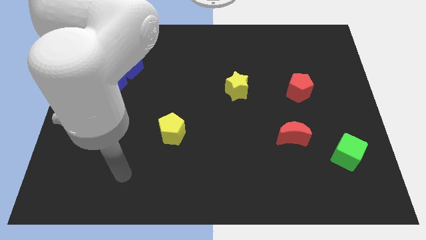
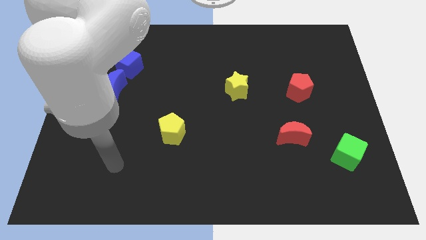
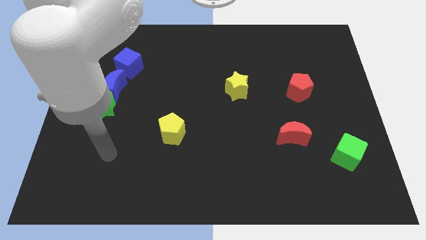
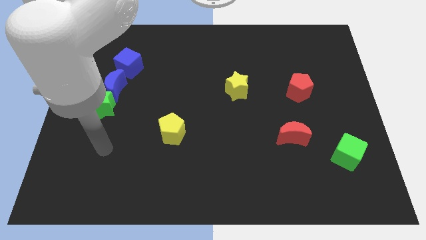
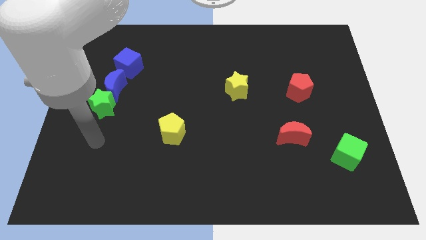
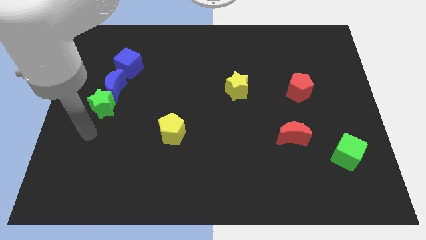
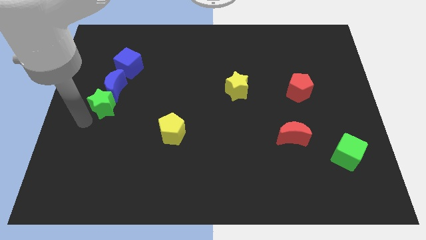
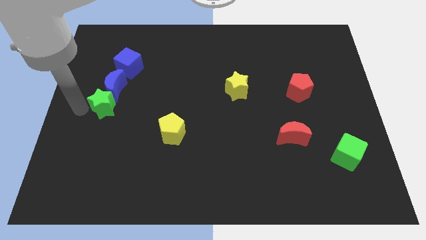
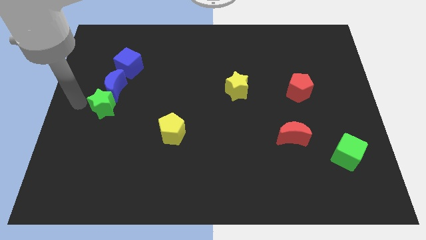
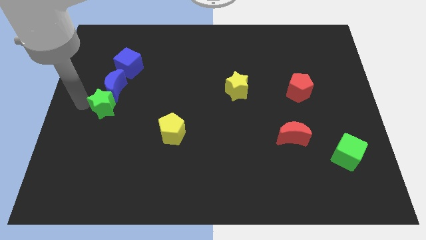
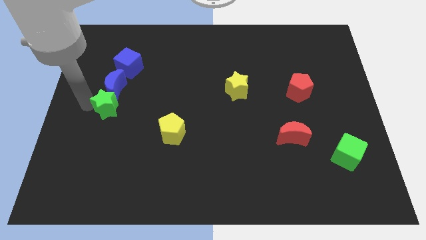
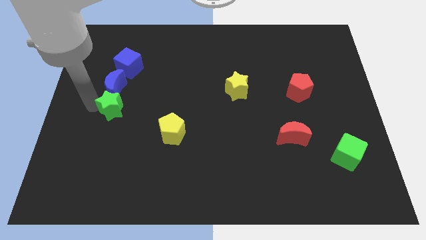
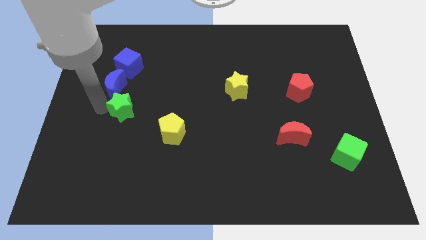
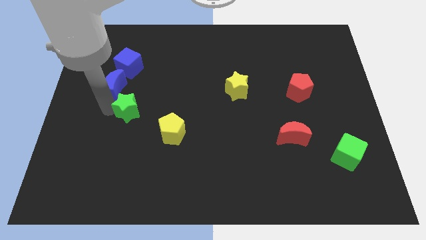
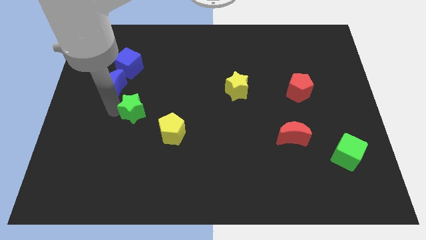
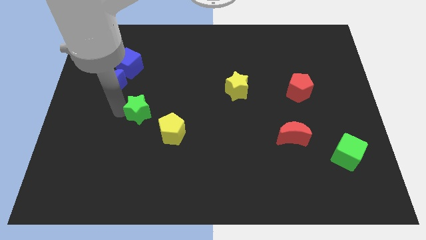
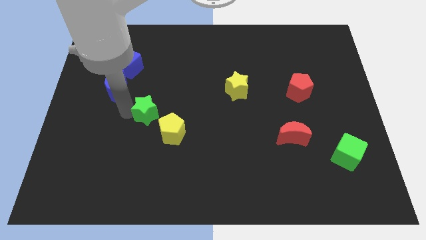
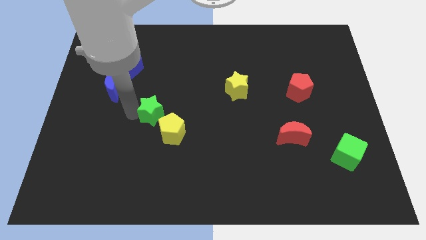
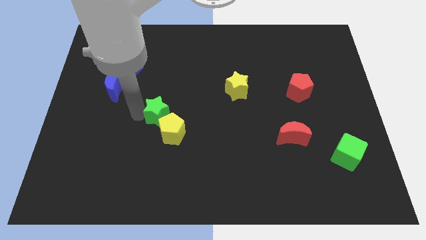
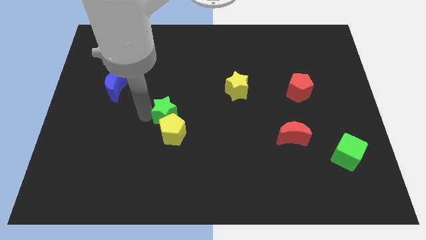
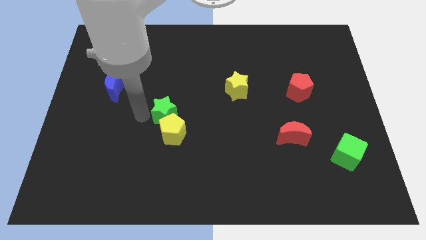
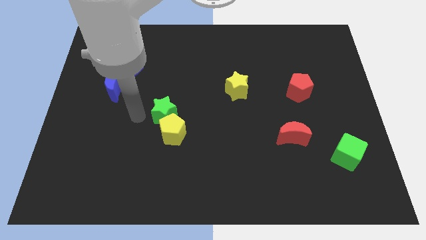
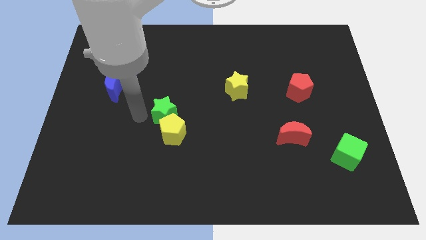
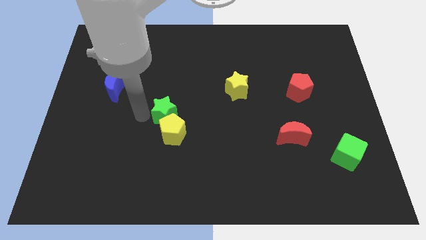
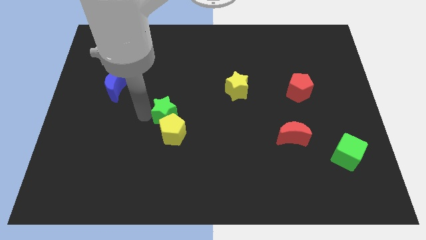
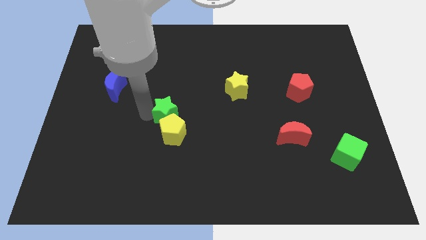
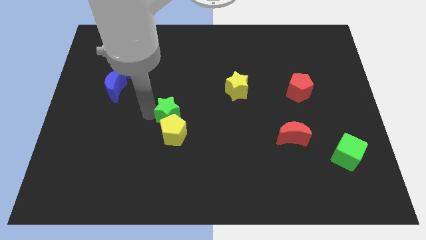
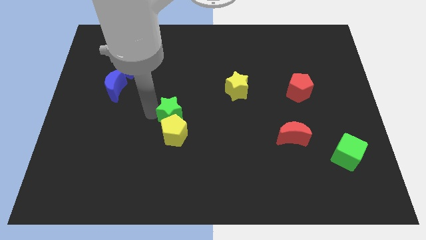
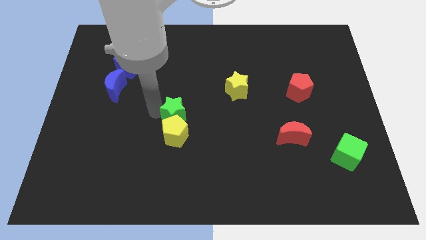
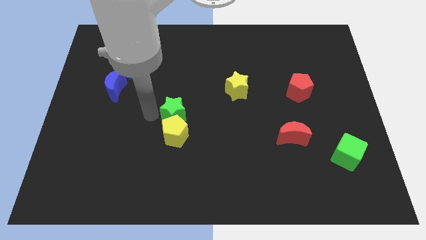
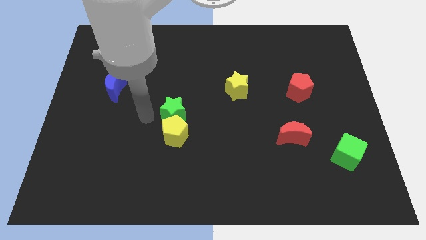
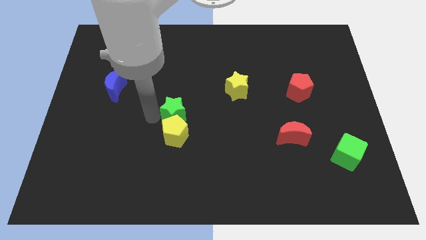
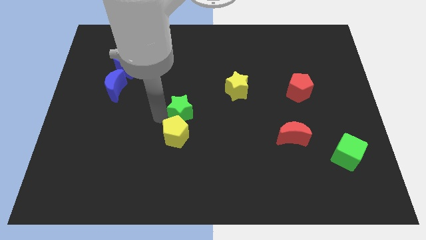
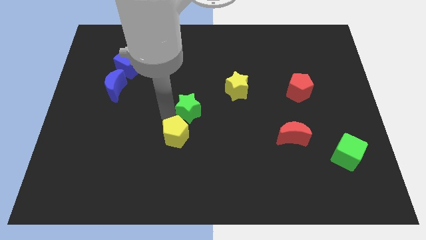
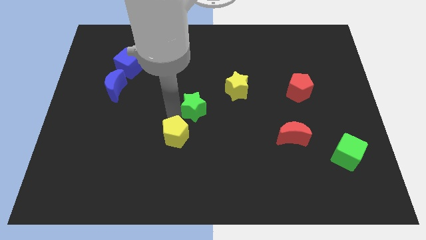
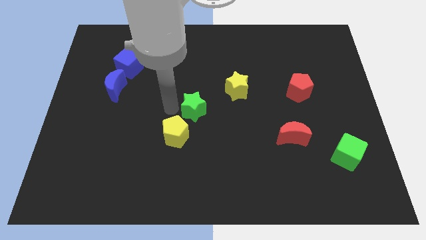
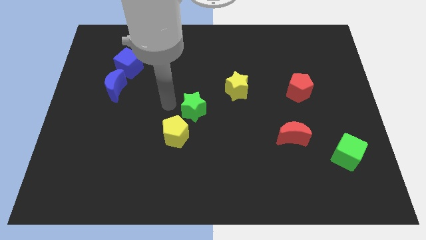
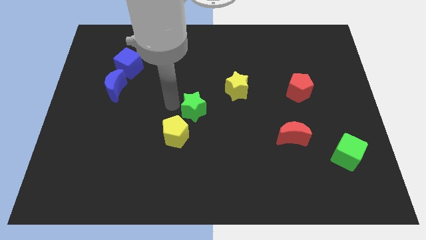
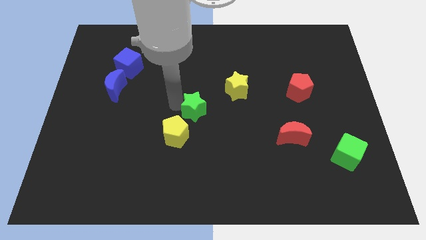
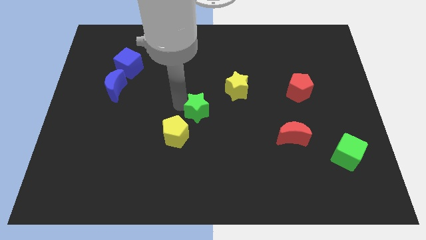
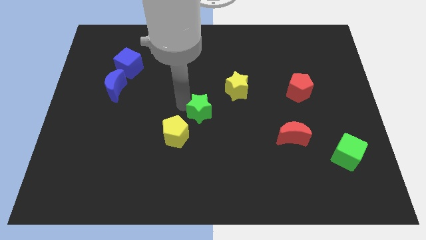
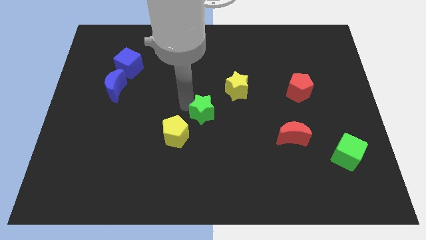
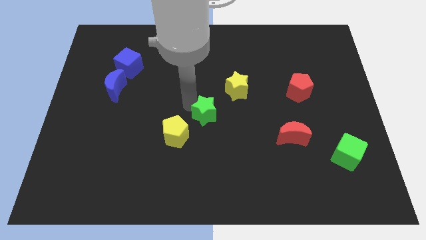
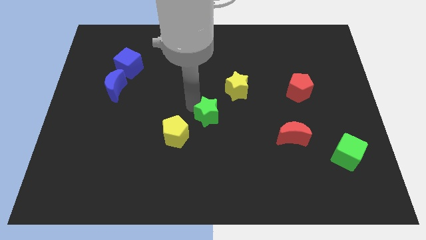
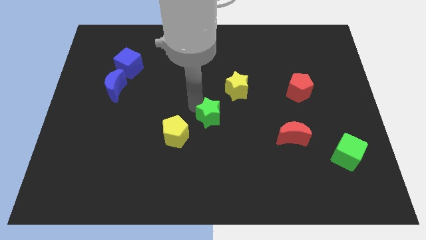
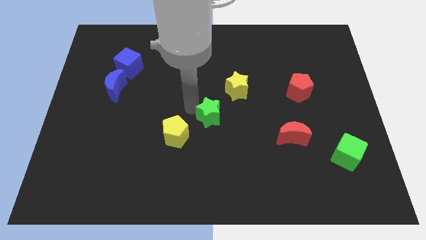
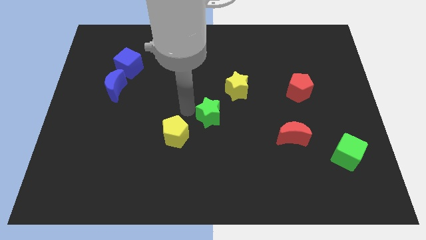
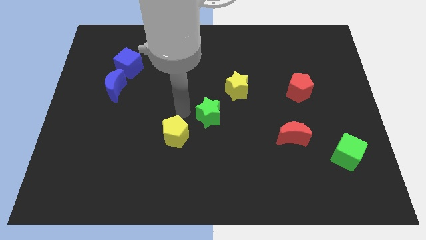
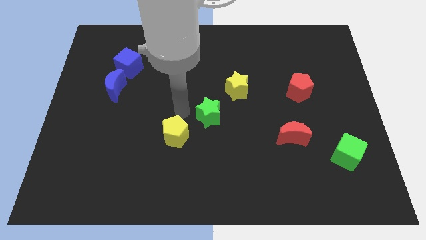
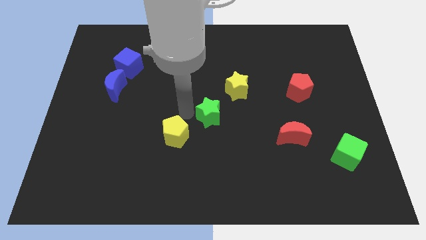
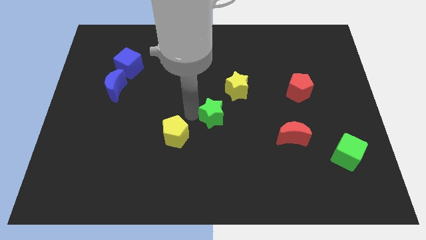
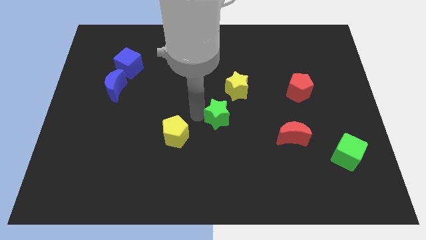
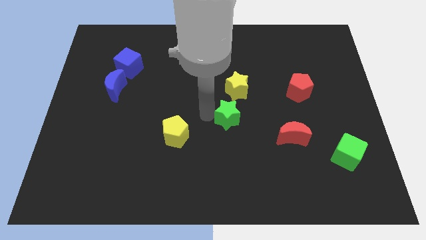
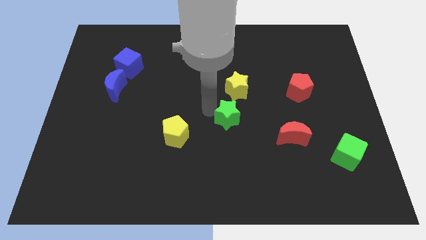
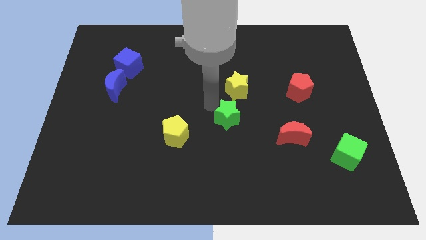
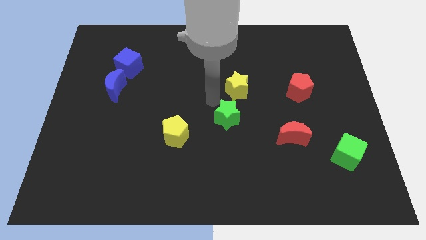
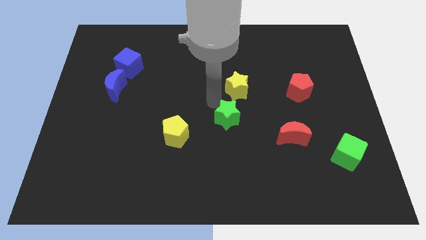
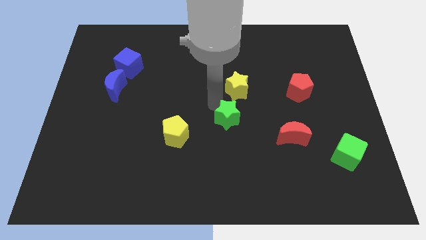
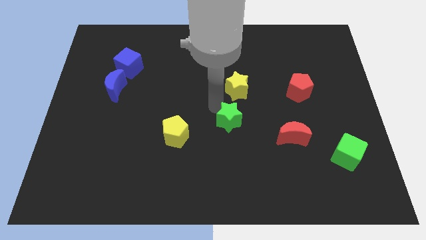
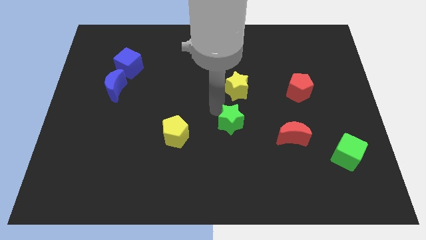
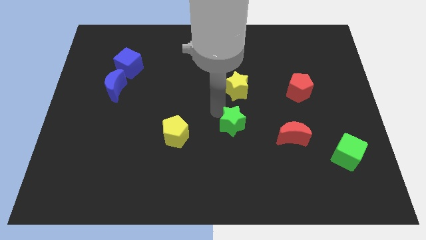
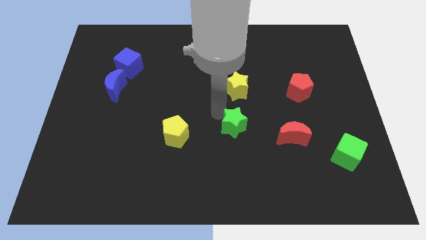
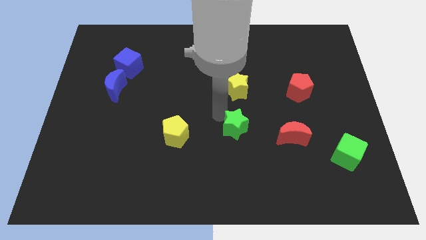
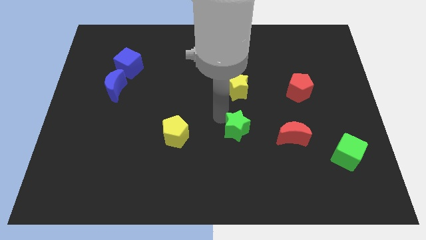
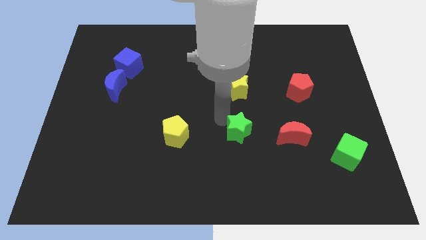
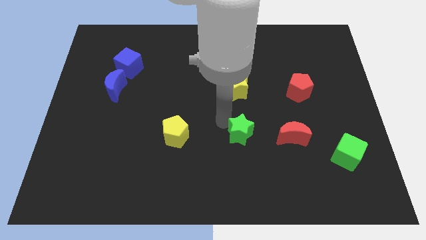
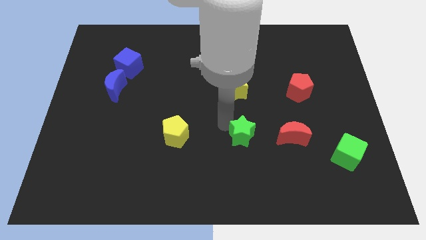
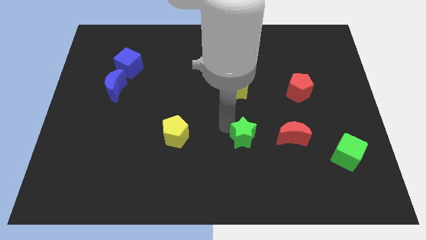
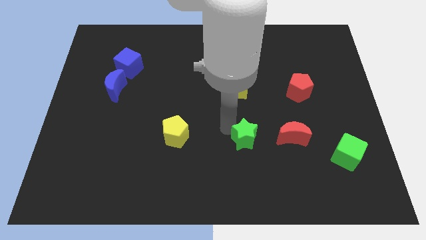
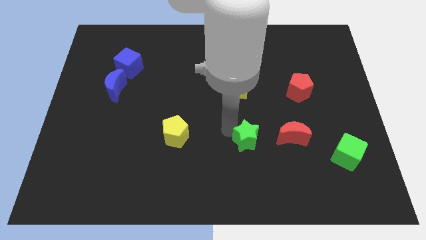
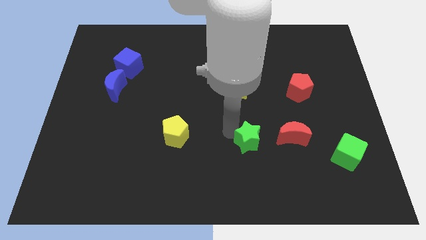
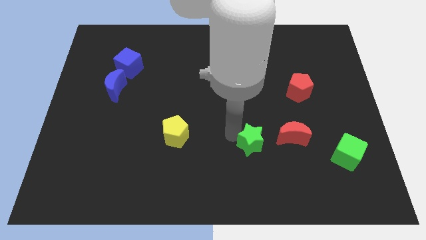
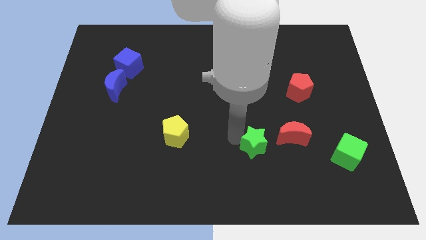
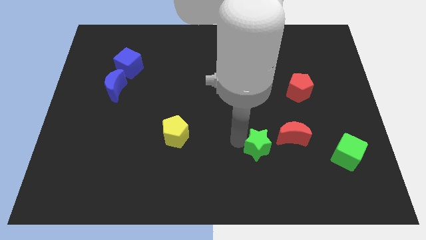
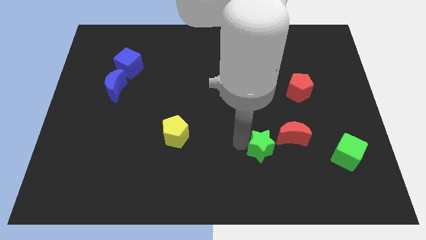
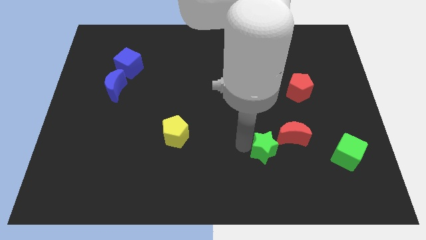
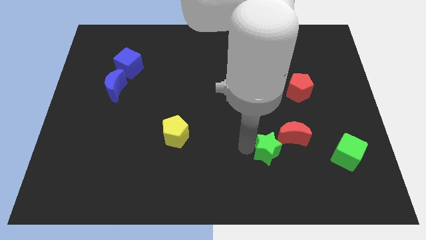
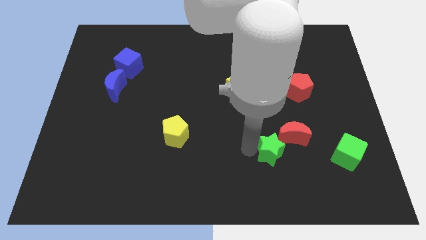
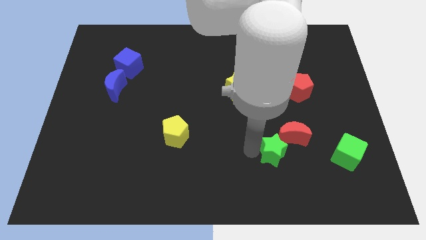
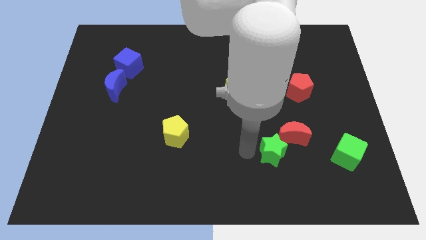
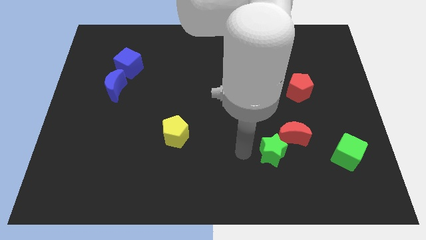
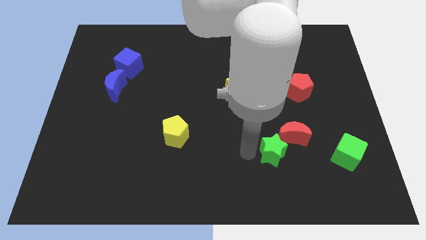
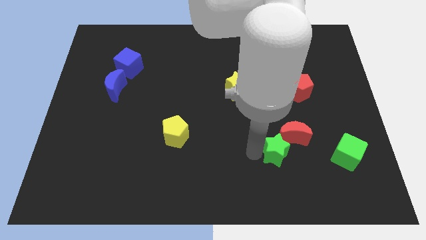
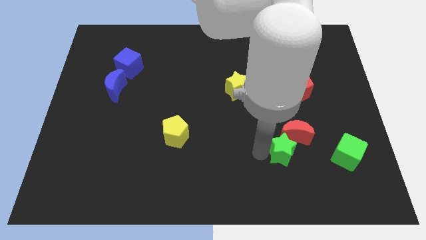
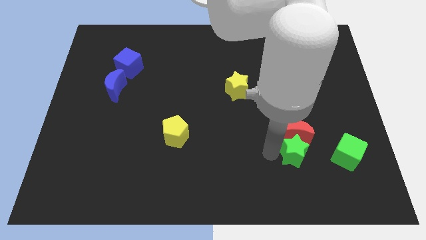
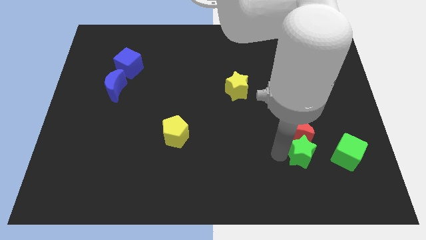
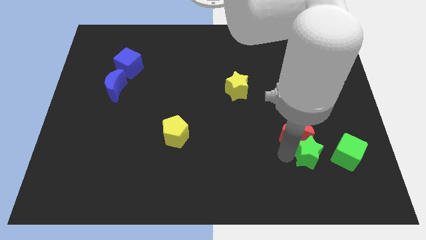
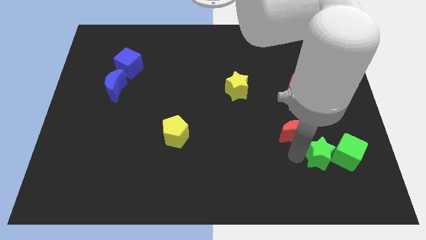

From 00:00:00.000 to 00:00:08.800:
put the green star towards the green cube
